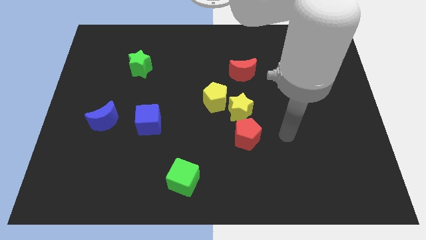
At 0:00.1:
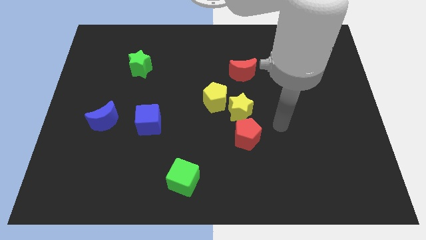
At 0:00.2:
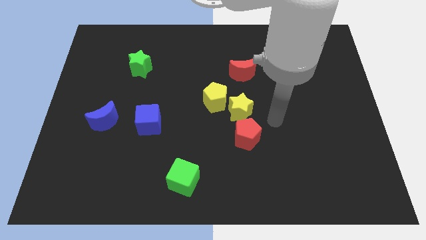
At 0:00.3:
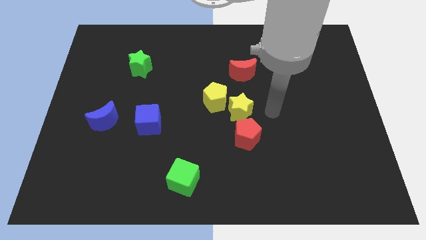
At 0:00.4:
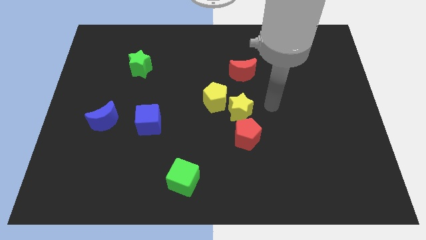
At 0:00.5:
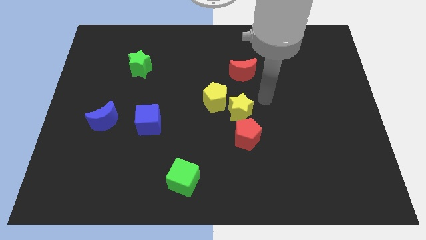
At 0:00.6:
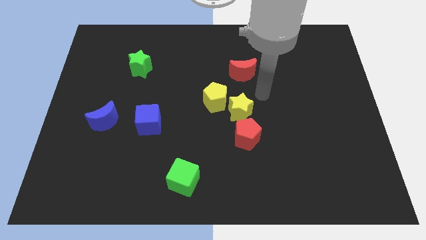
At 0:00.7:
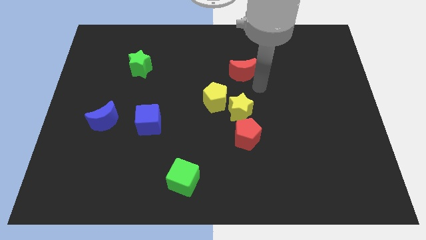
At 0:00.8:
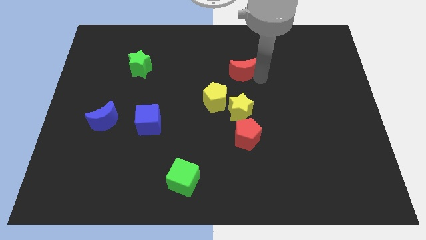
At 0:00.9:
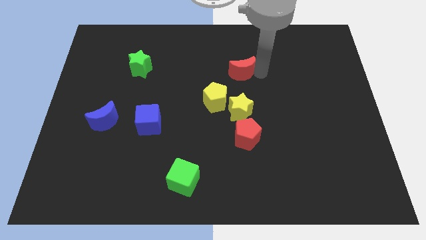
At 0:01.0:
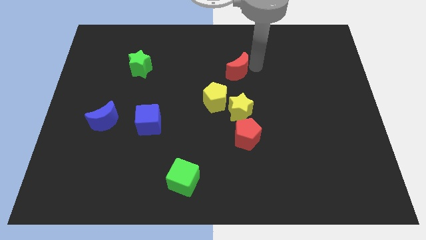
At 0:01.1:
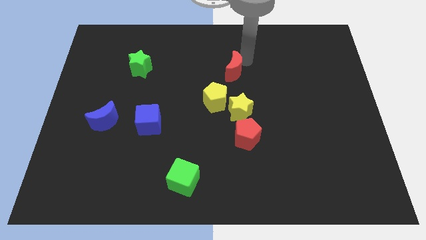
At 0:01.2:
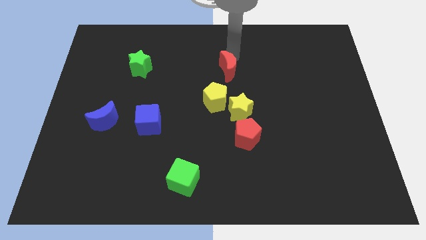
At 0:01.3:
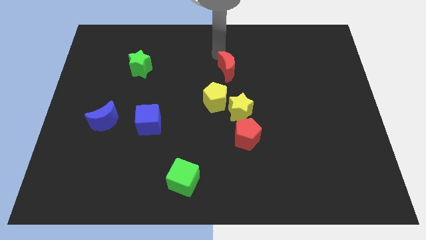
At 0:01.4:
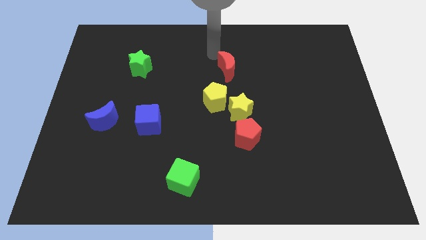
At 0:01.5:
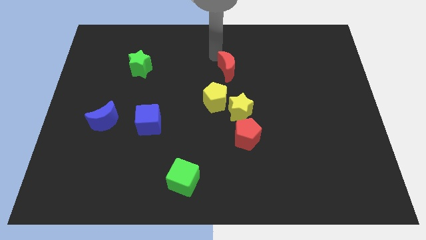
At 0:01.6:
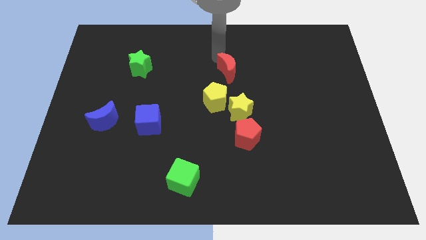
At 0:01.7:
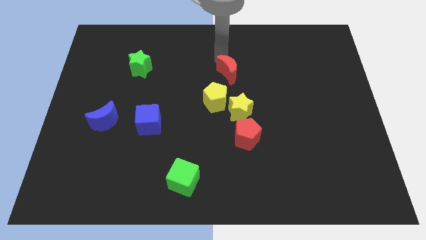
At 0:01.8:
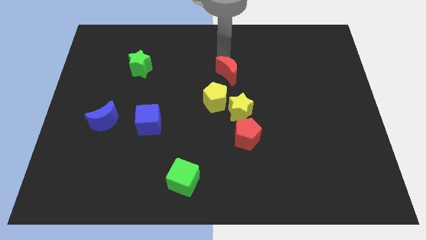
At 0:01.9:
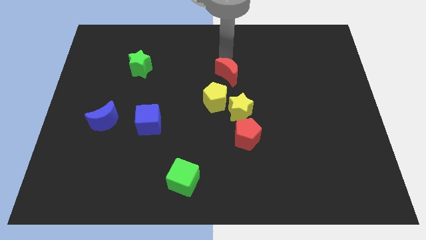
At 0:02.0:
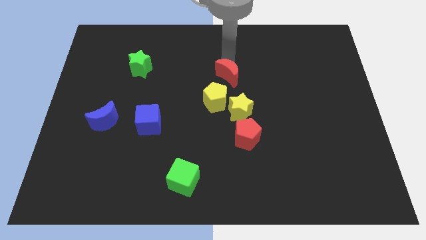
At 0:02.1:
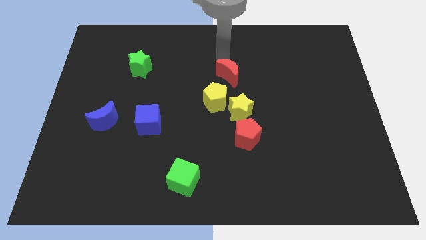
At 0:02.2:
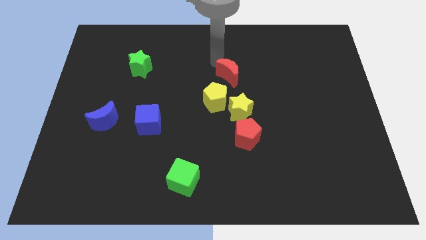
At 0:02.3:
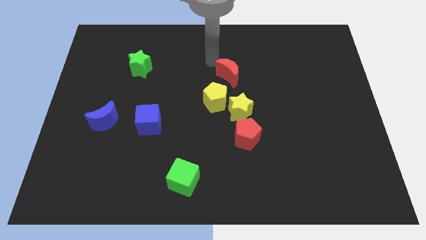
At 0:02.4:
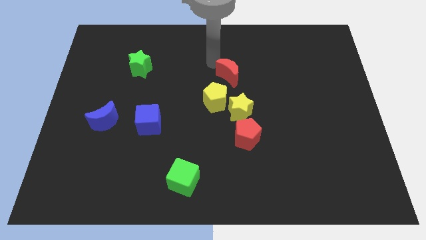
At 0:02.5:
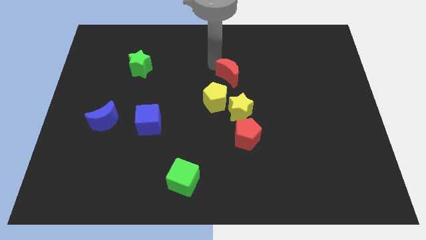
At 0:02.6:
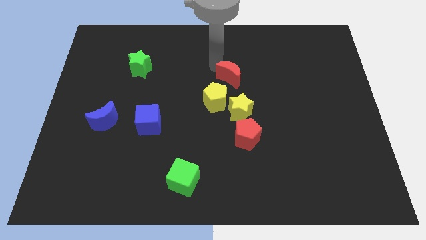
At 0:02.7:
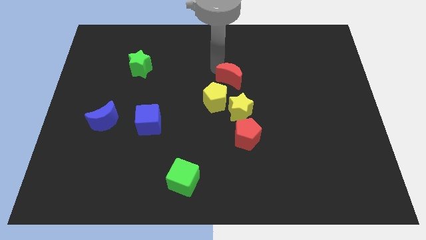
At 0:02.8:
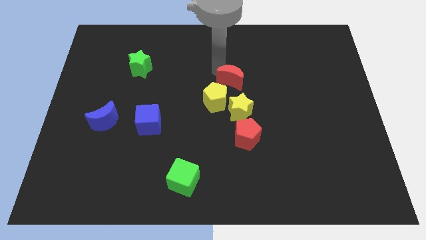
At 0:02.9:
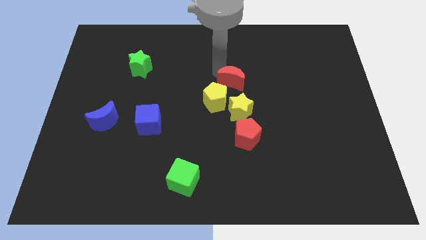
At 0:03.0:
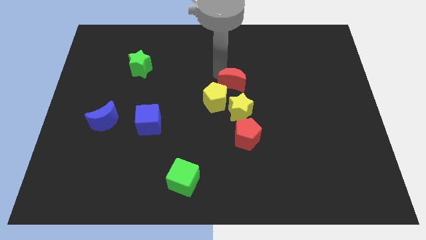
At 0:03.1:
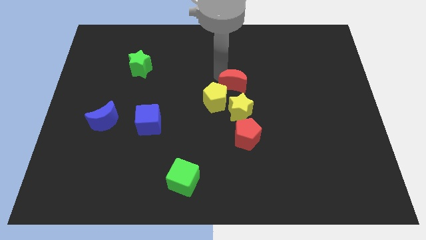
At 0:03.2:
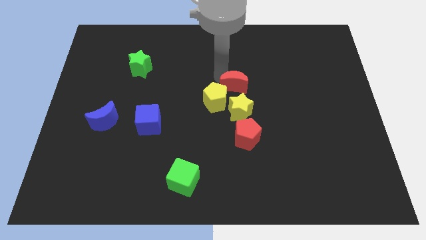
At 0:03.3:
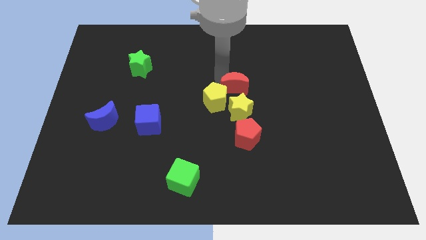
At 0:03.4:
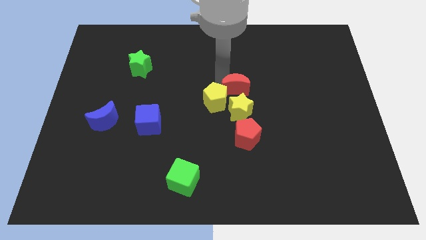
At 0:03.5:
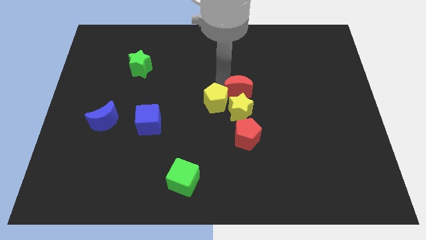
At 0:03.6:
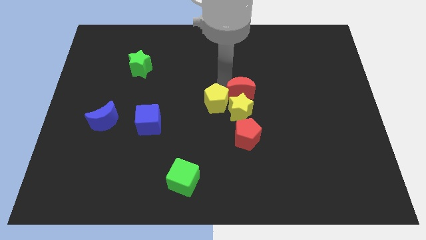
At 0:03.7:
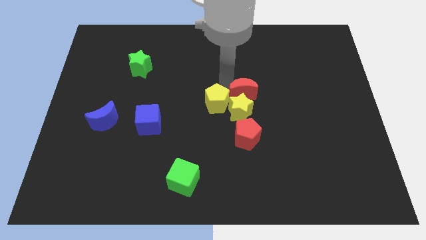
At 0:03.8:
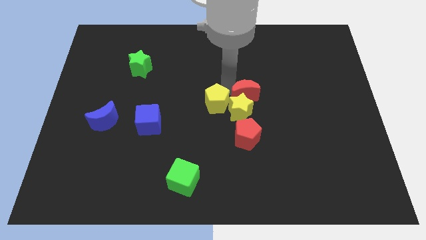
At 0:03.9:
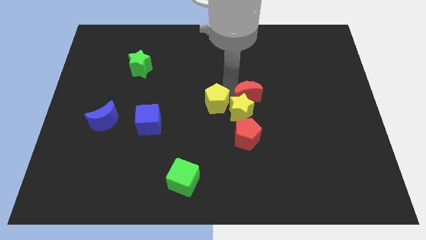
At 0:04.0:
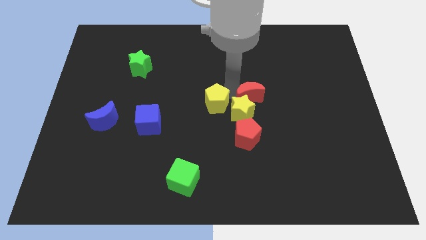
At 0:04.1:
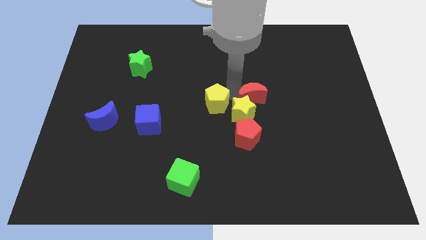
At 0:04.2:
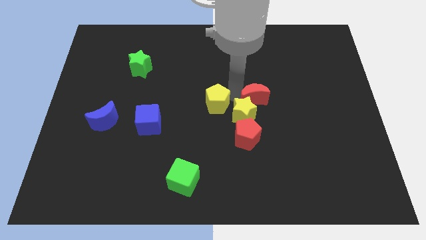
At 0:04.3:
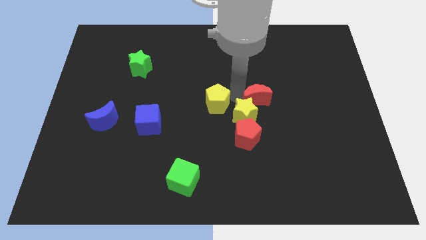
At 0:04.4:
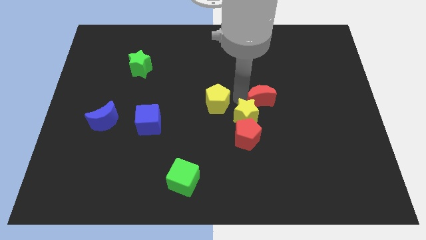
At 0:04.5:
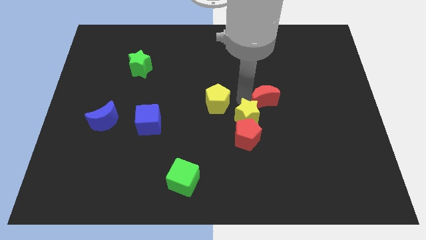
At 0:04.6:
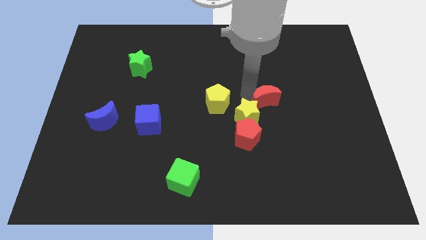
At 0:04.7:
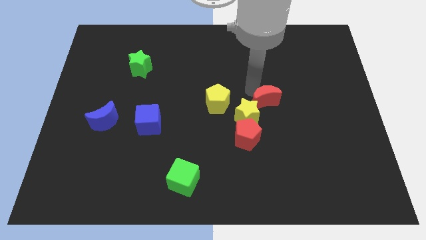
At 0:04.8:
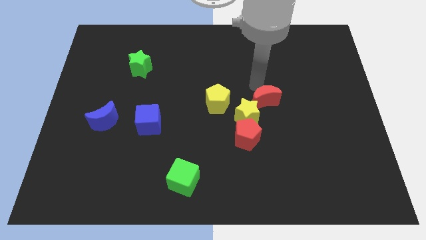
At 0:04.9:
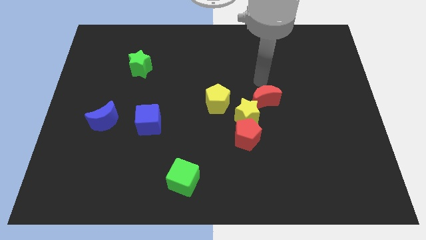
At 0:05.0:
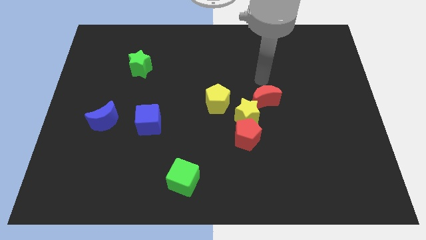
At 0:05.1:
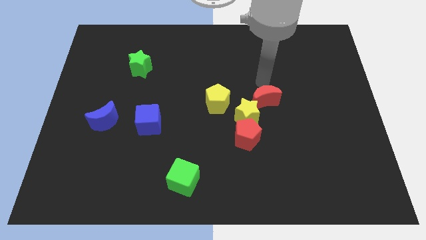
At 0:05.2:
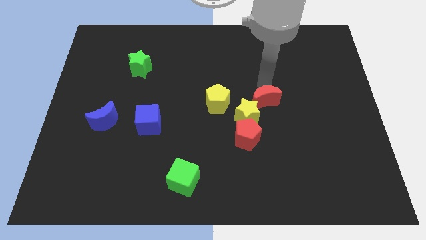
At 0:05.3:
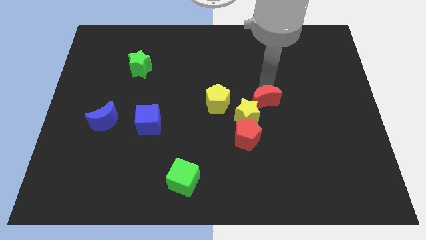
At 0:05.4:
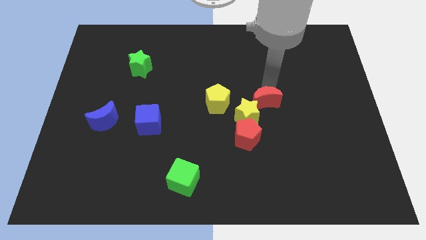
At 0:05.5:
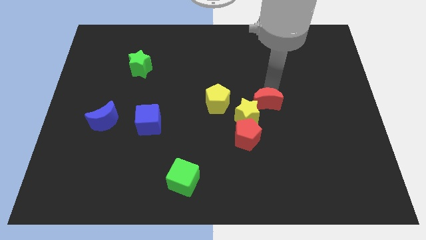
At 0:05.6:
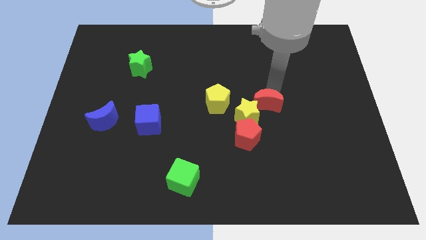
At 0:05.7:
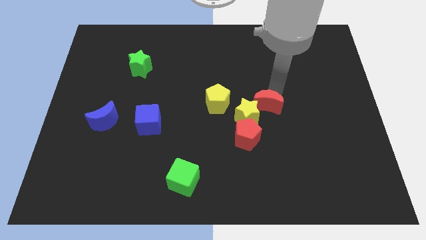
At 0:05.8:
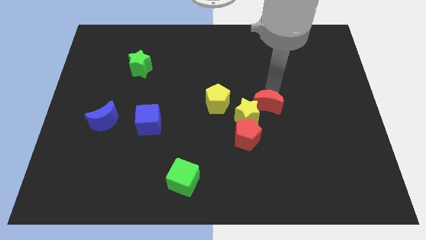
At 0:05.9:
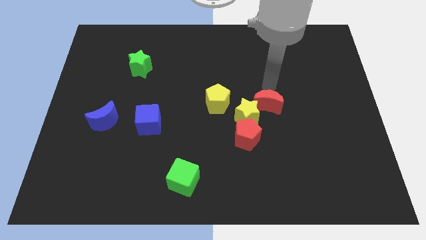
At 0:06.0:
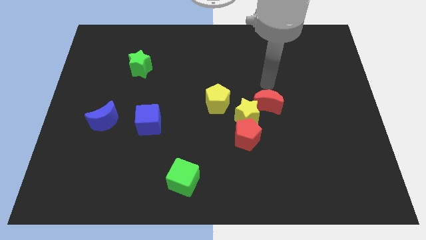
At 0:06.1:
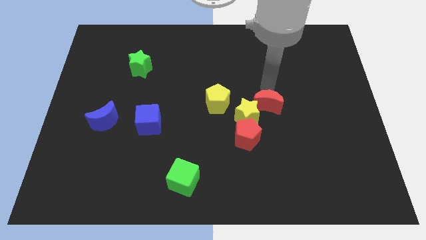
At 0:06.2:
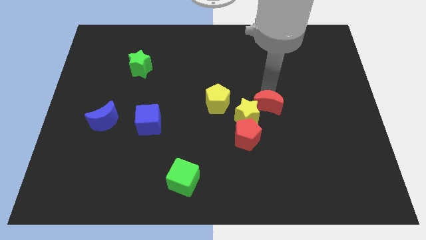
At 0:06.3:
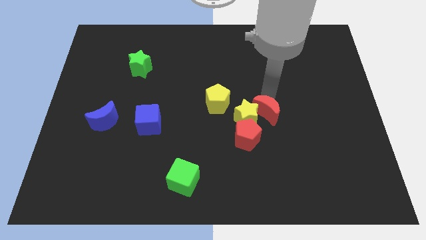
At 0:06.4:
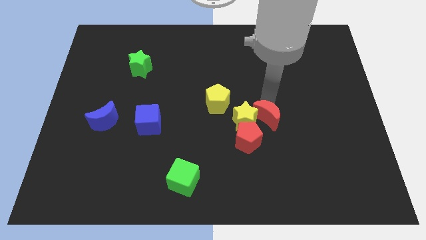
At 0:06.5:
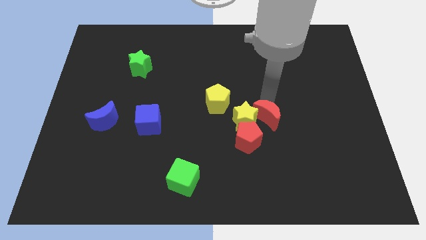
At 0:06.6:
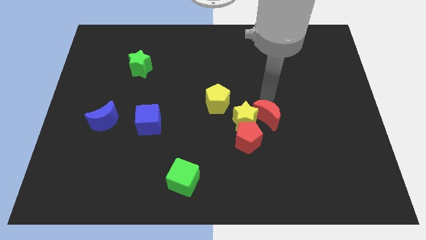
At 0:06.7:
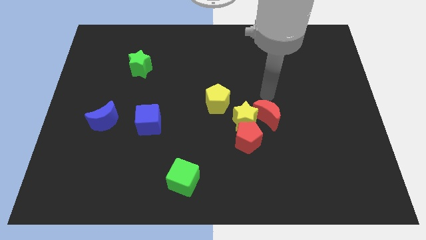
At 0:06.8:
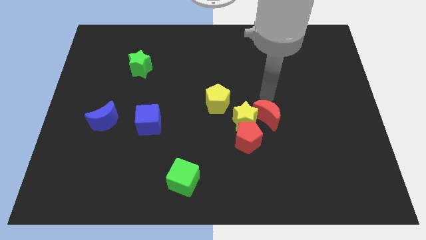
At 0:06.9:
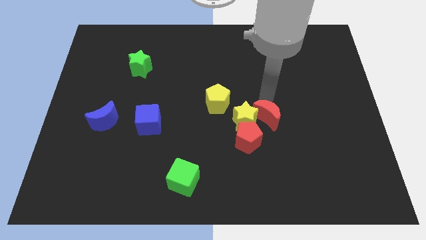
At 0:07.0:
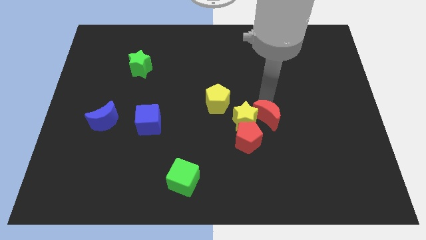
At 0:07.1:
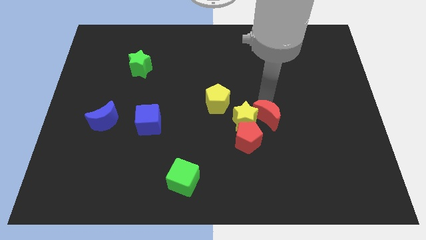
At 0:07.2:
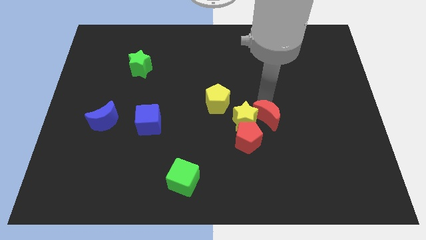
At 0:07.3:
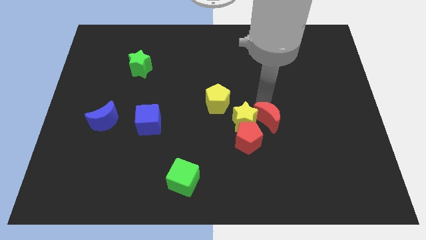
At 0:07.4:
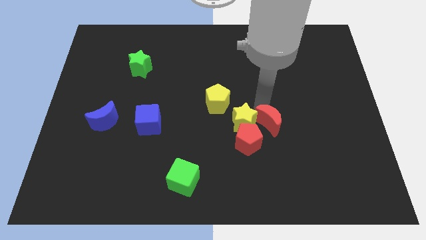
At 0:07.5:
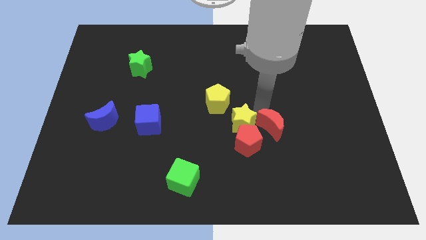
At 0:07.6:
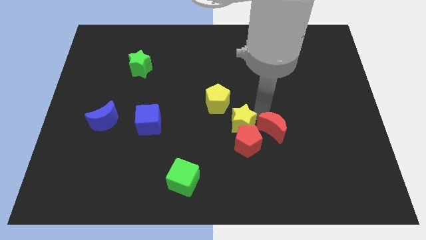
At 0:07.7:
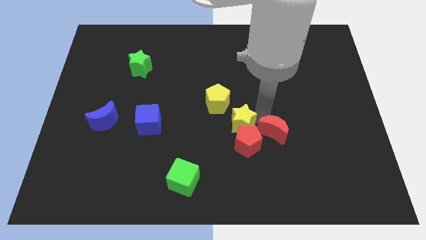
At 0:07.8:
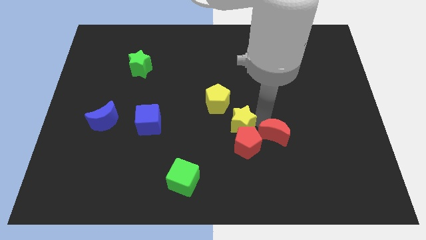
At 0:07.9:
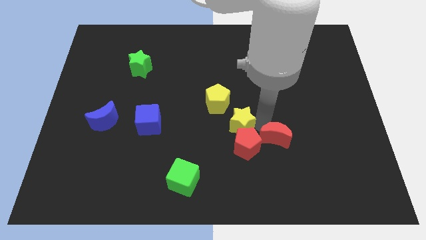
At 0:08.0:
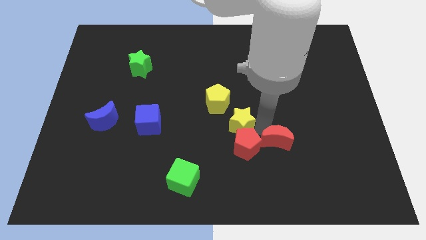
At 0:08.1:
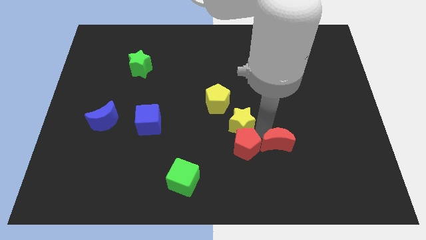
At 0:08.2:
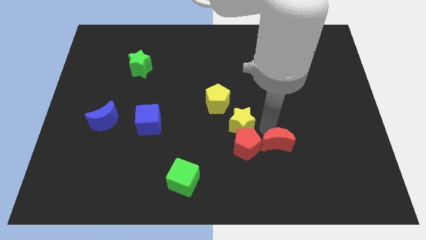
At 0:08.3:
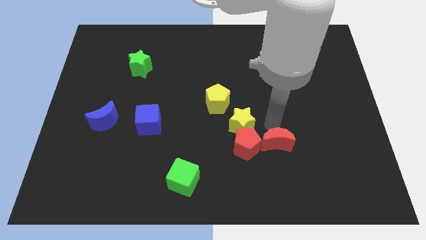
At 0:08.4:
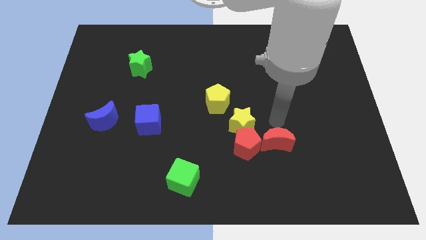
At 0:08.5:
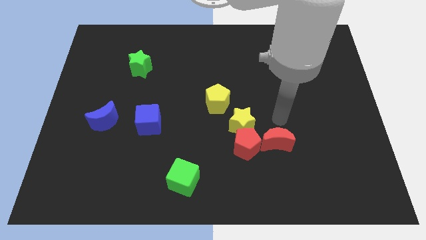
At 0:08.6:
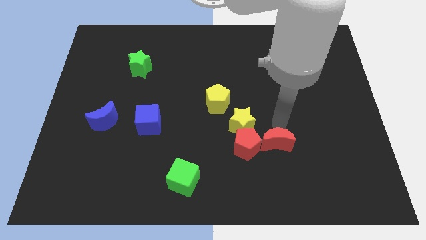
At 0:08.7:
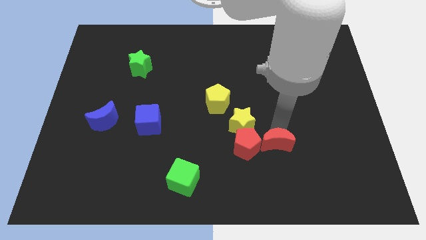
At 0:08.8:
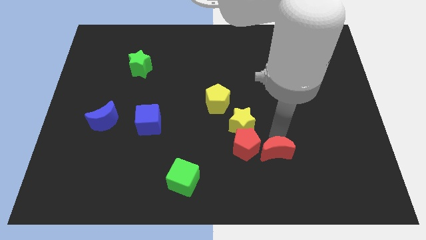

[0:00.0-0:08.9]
push the red moon diagonally down and to the right of the red pentagon
